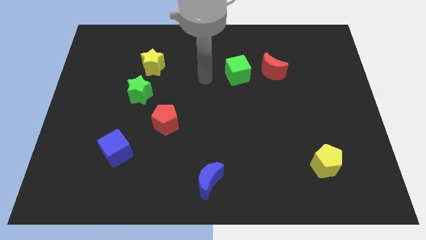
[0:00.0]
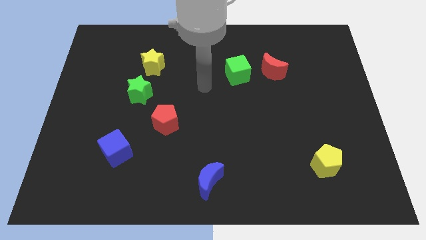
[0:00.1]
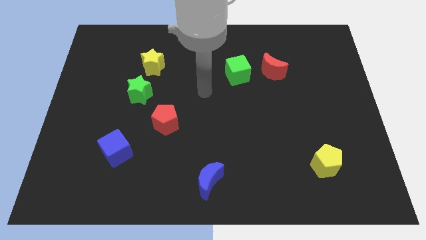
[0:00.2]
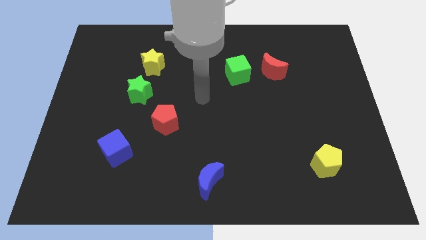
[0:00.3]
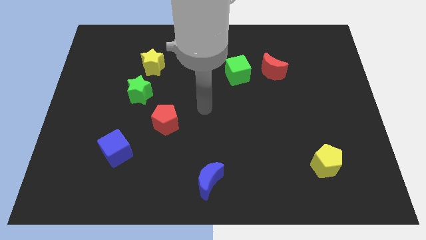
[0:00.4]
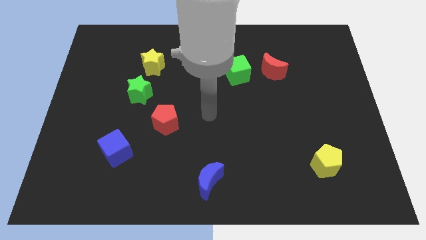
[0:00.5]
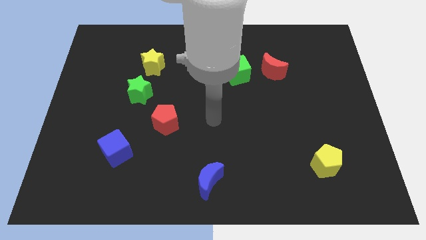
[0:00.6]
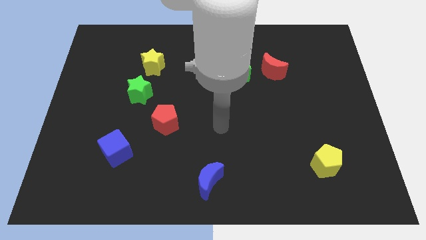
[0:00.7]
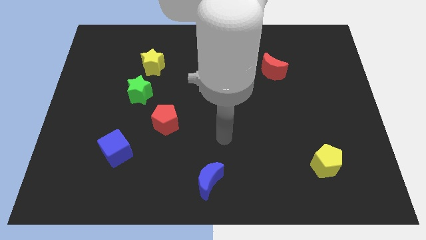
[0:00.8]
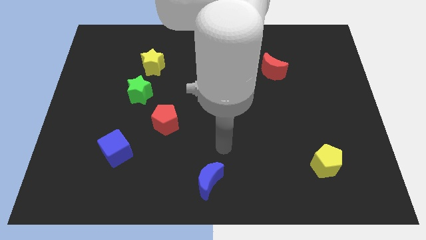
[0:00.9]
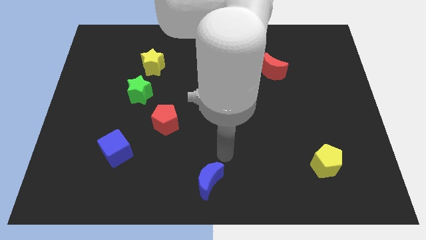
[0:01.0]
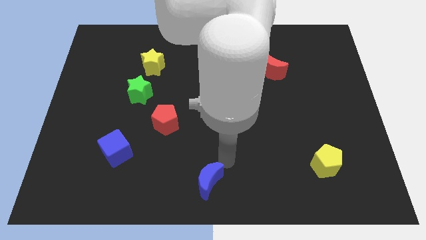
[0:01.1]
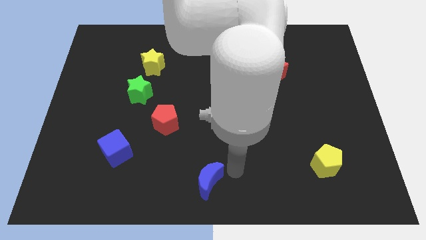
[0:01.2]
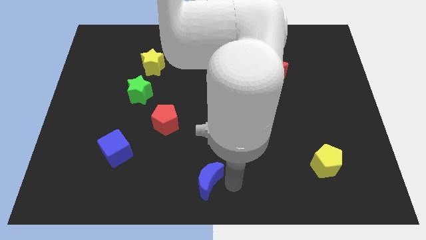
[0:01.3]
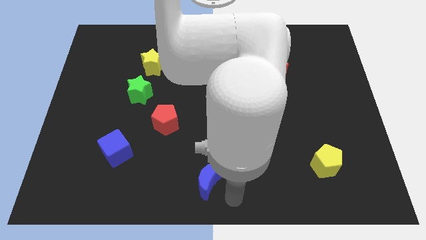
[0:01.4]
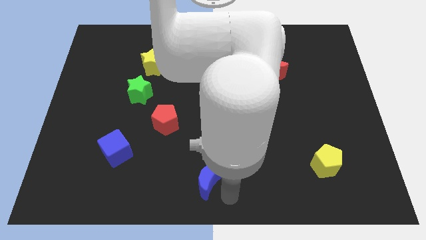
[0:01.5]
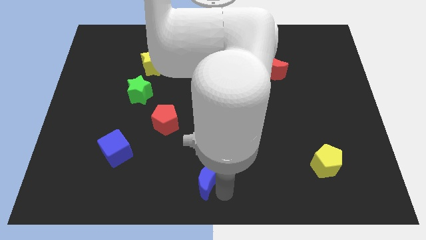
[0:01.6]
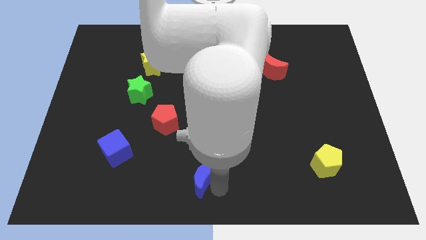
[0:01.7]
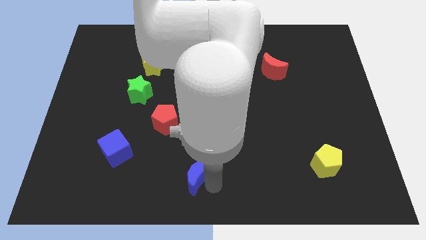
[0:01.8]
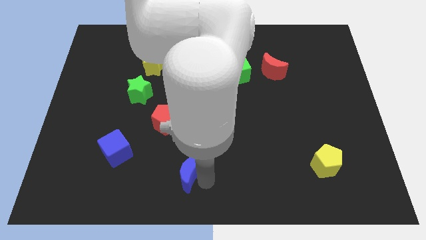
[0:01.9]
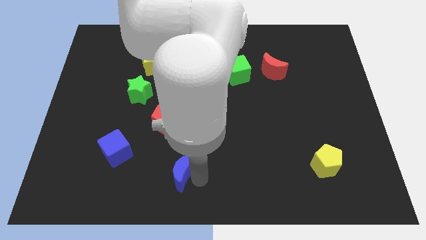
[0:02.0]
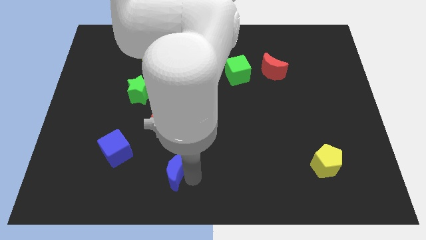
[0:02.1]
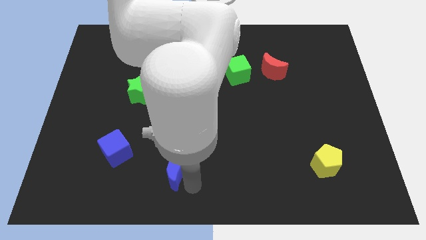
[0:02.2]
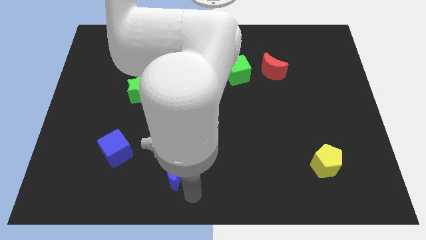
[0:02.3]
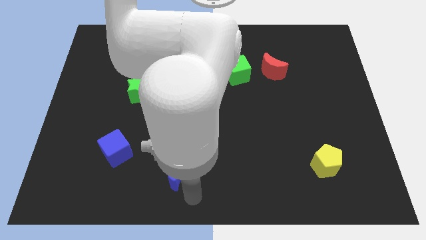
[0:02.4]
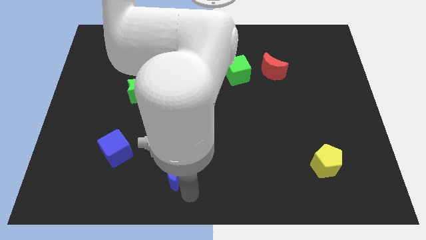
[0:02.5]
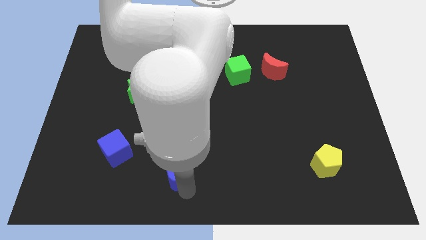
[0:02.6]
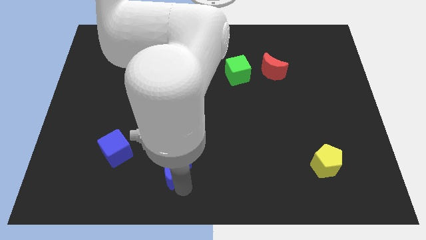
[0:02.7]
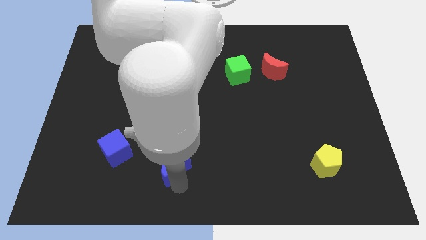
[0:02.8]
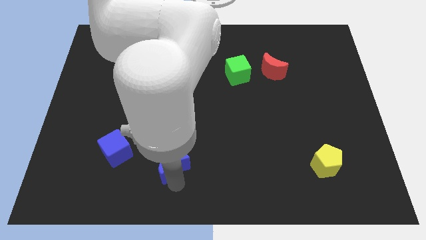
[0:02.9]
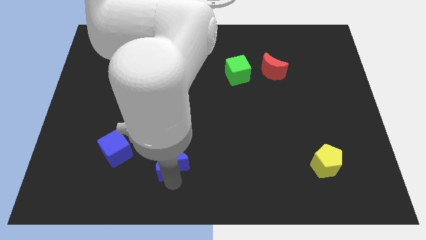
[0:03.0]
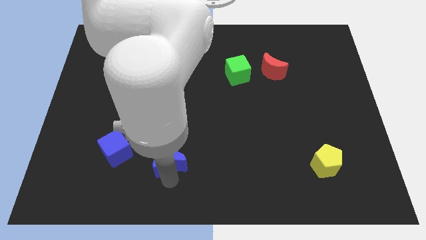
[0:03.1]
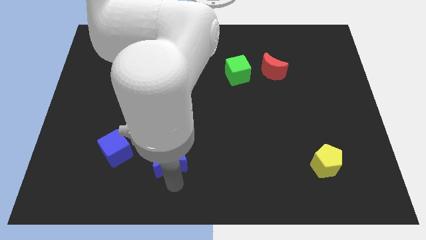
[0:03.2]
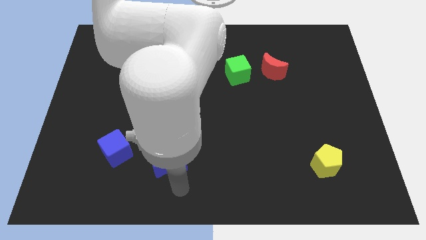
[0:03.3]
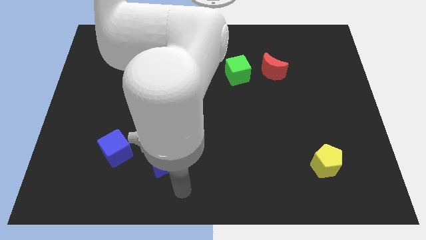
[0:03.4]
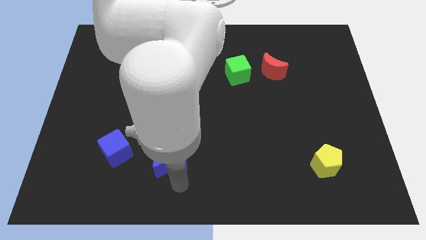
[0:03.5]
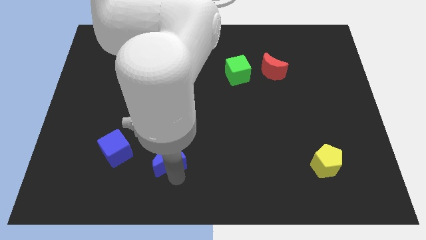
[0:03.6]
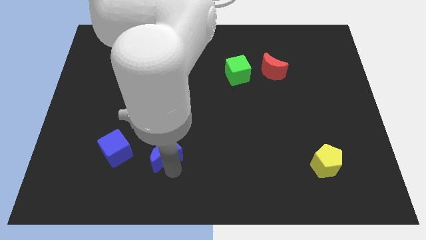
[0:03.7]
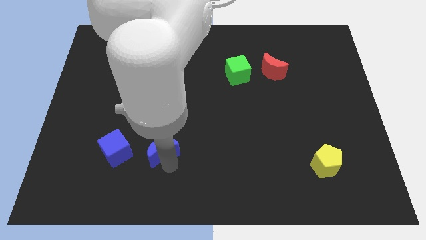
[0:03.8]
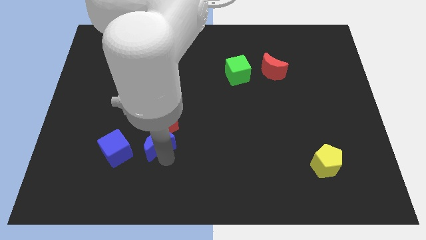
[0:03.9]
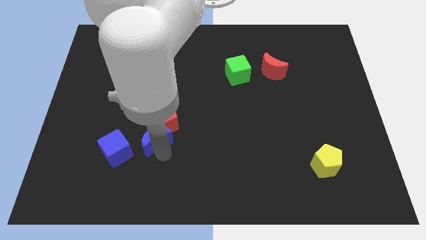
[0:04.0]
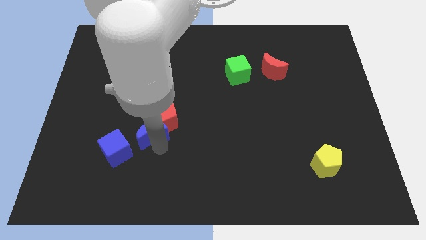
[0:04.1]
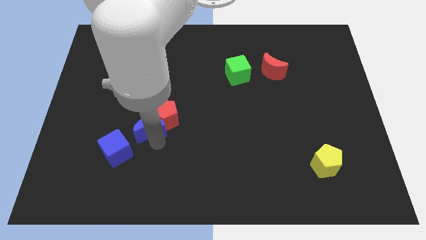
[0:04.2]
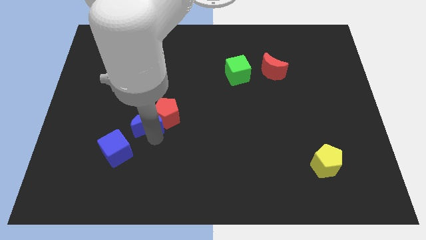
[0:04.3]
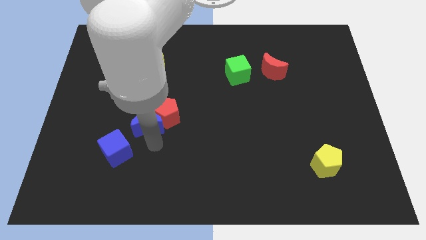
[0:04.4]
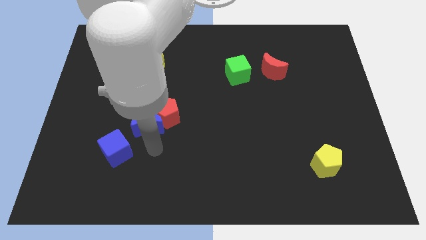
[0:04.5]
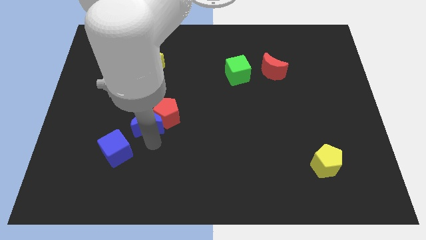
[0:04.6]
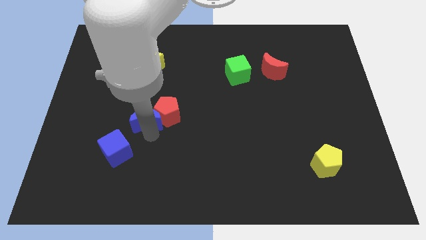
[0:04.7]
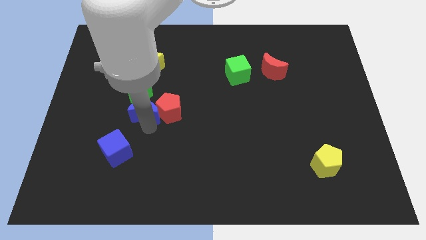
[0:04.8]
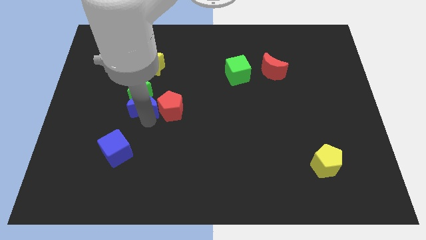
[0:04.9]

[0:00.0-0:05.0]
push the blue moon towards the green star

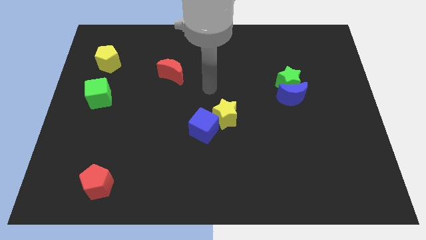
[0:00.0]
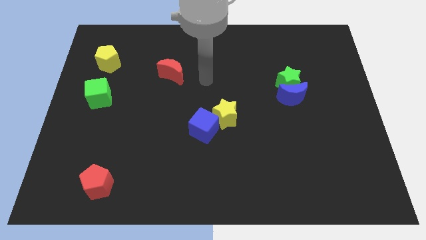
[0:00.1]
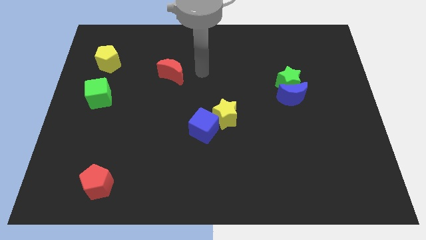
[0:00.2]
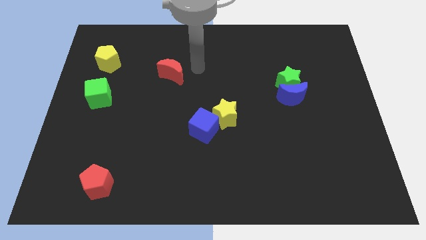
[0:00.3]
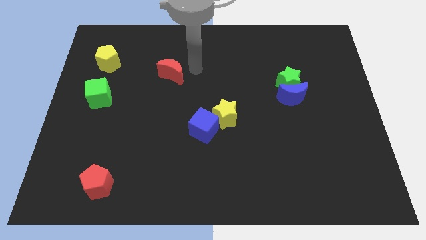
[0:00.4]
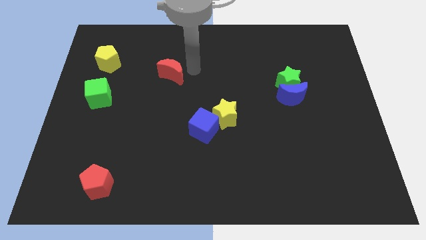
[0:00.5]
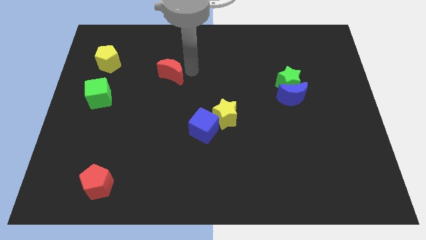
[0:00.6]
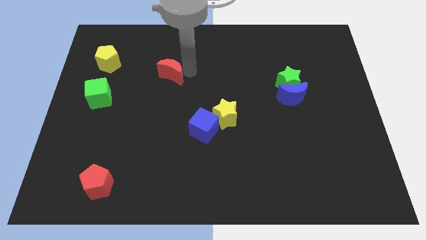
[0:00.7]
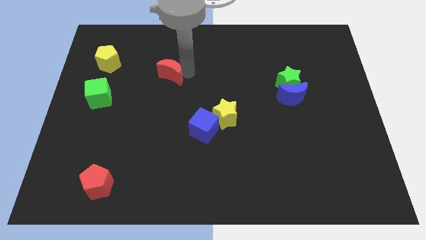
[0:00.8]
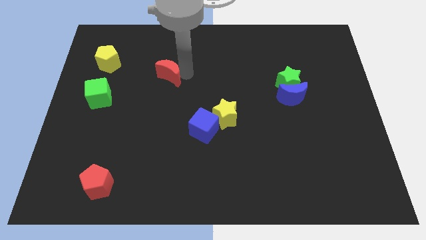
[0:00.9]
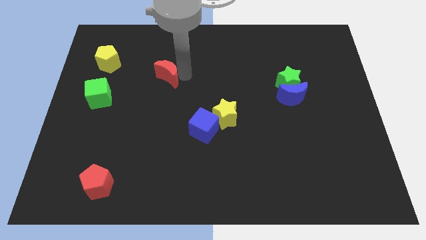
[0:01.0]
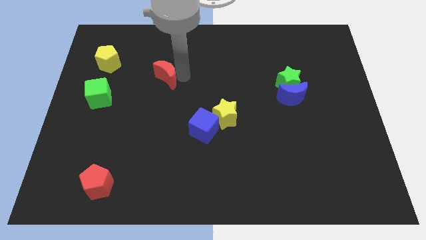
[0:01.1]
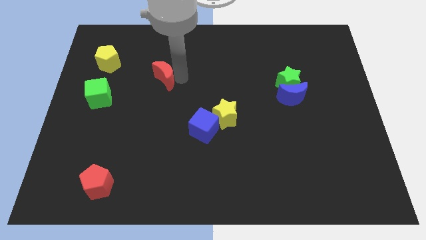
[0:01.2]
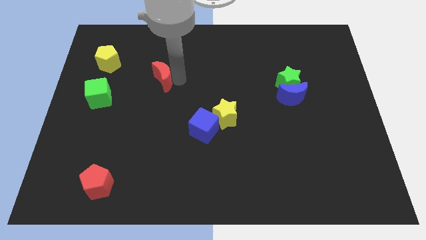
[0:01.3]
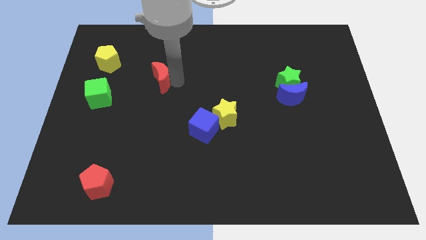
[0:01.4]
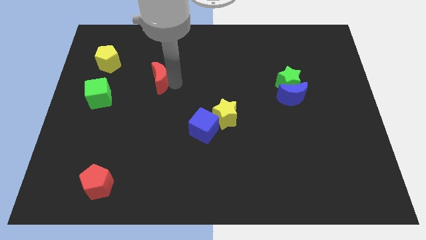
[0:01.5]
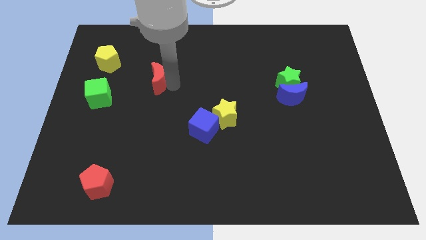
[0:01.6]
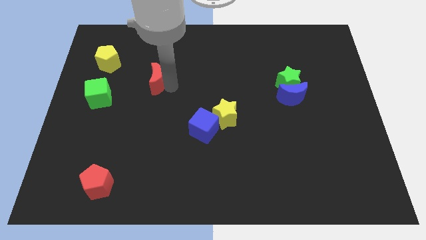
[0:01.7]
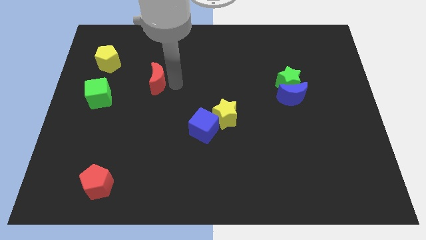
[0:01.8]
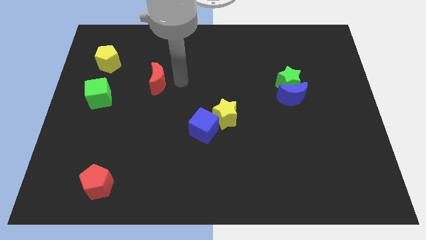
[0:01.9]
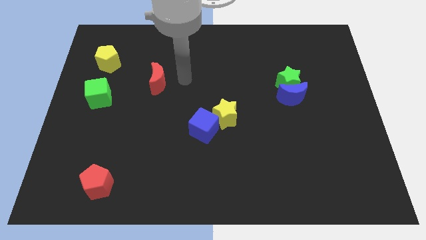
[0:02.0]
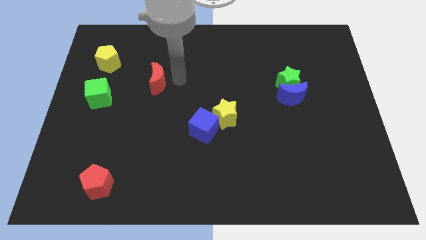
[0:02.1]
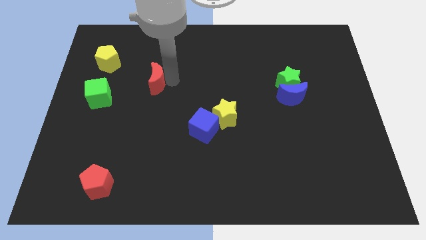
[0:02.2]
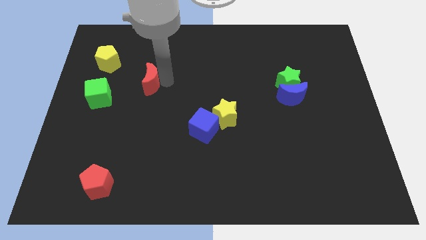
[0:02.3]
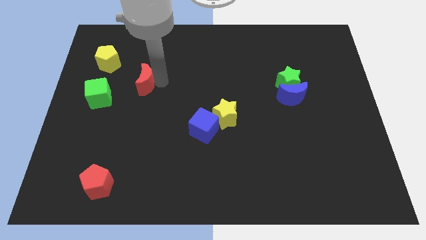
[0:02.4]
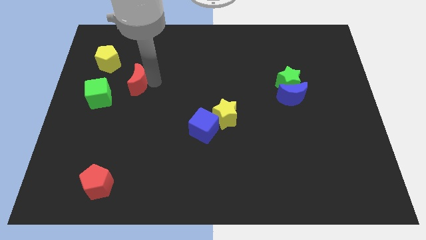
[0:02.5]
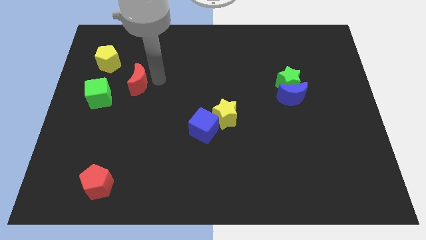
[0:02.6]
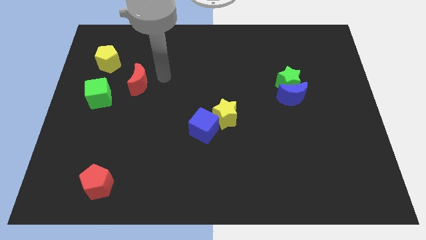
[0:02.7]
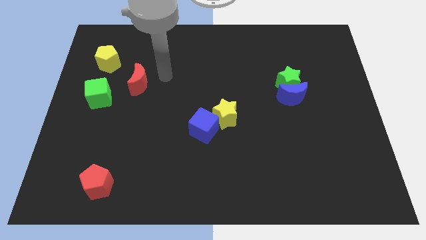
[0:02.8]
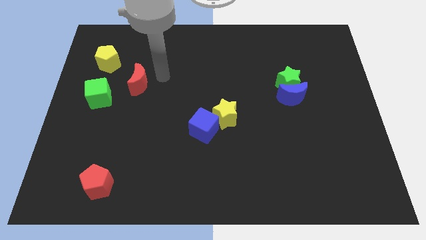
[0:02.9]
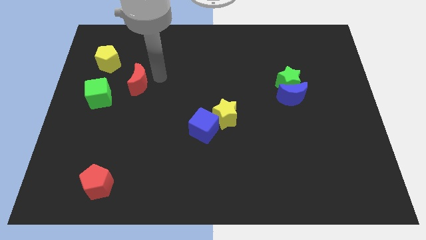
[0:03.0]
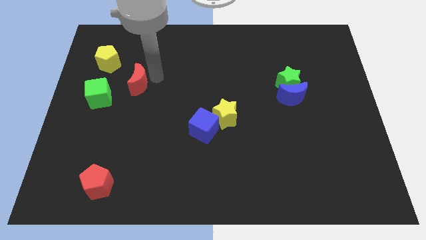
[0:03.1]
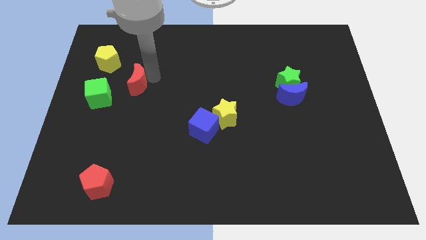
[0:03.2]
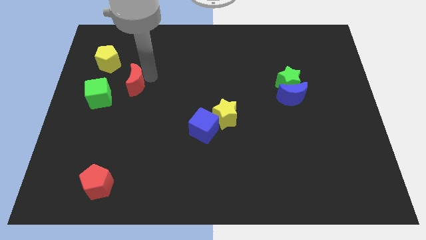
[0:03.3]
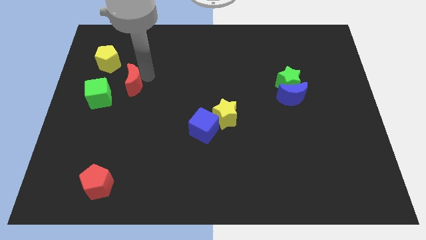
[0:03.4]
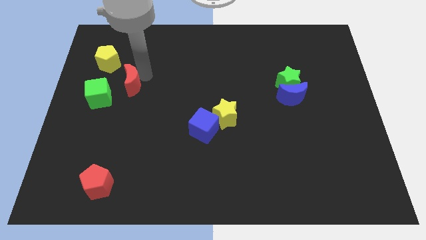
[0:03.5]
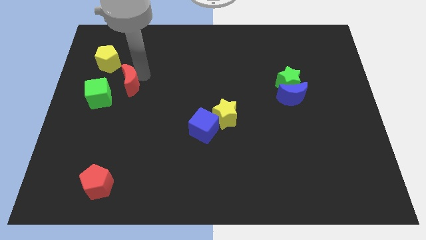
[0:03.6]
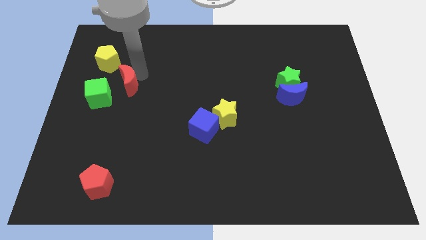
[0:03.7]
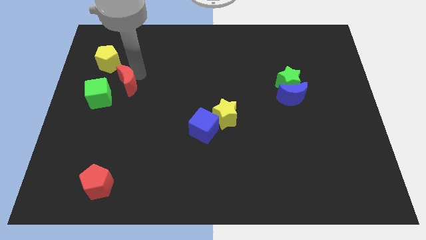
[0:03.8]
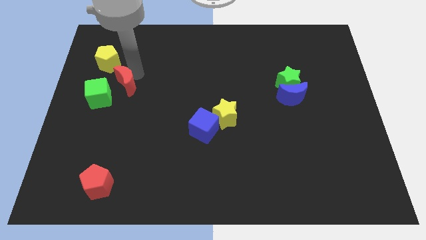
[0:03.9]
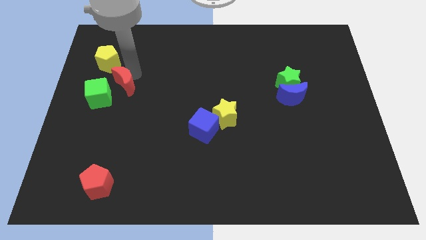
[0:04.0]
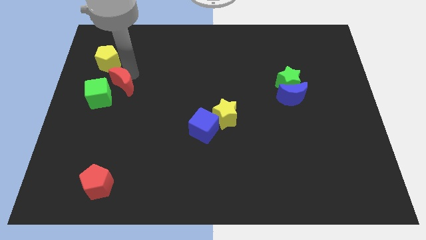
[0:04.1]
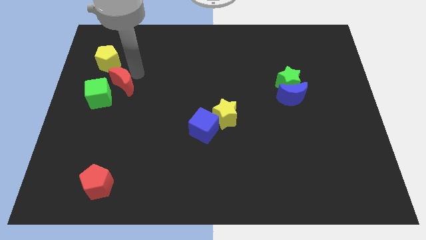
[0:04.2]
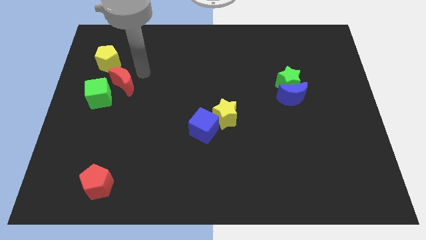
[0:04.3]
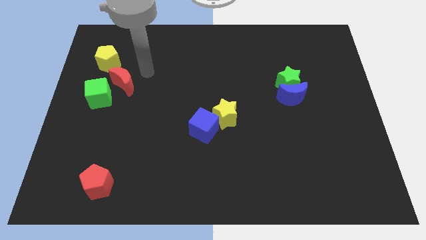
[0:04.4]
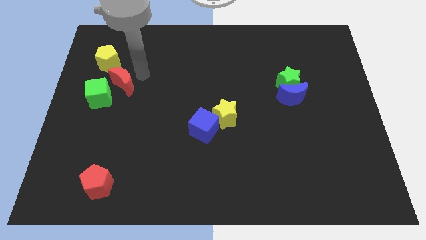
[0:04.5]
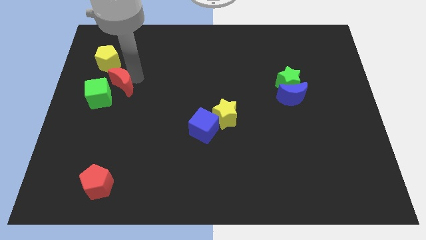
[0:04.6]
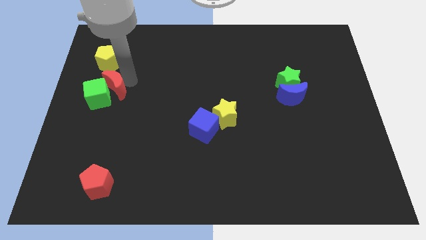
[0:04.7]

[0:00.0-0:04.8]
slide the red moon close to the green cube
